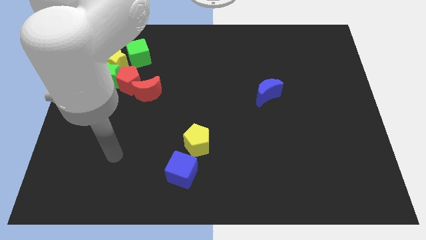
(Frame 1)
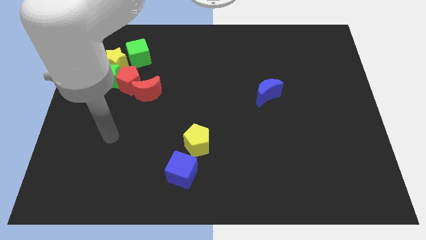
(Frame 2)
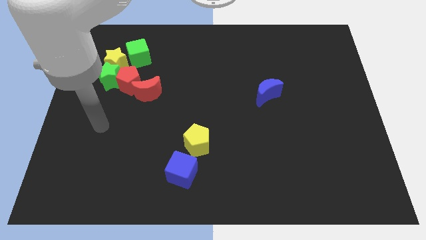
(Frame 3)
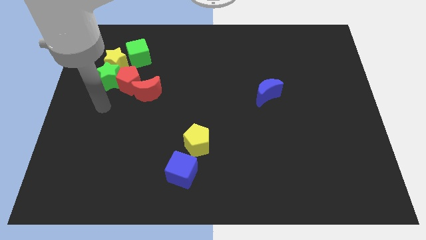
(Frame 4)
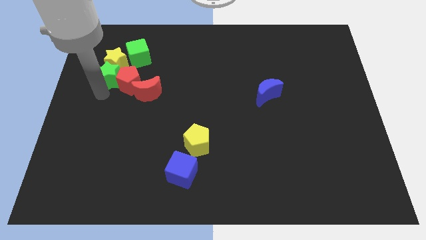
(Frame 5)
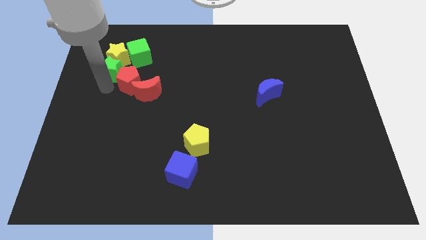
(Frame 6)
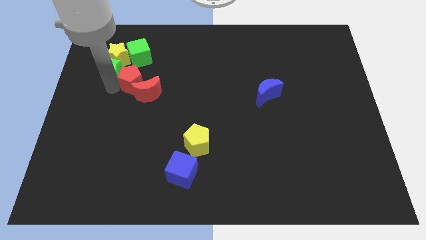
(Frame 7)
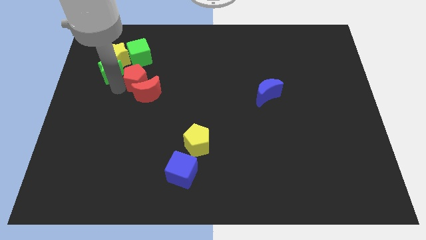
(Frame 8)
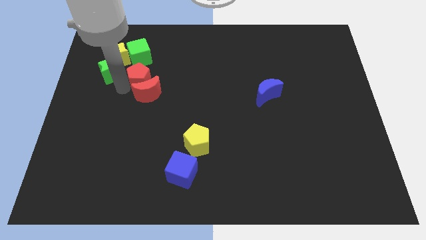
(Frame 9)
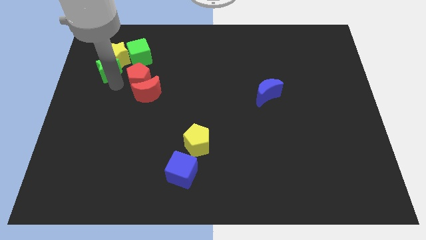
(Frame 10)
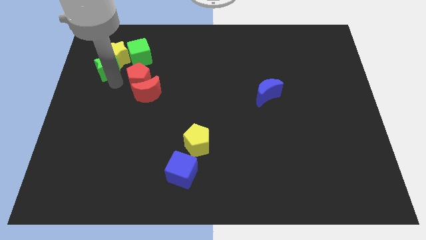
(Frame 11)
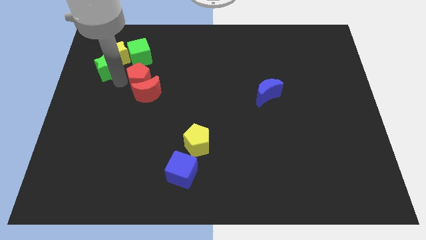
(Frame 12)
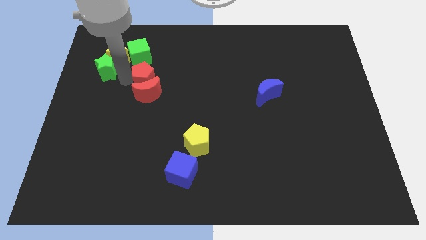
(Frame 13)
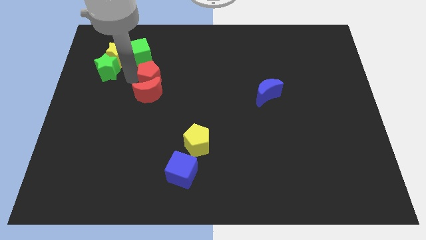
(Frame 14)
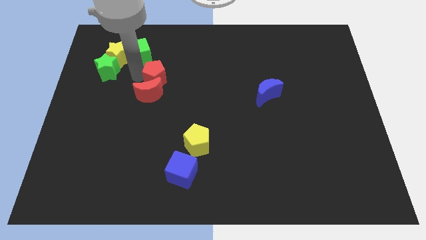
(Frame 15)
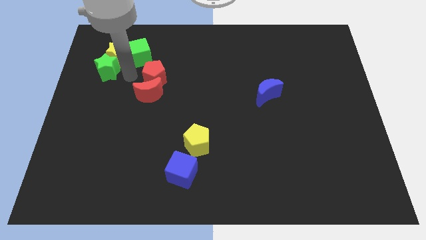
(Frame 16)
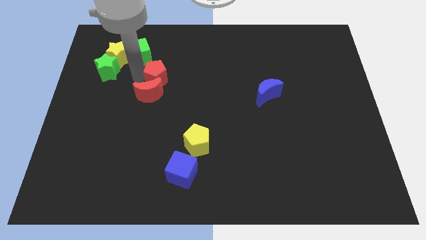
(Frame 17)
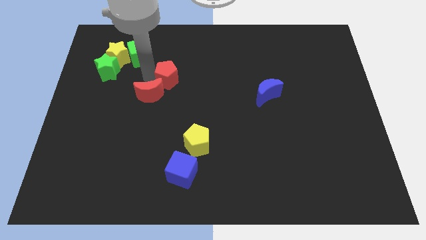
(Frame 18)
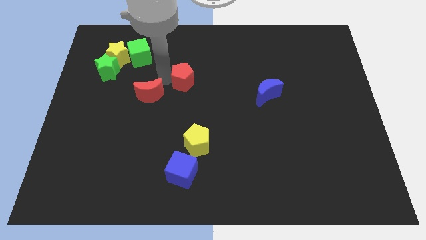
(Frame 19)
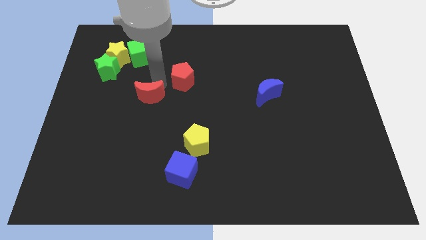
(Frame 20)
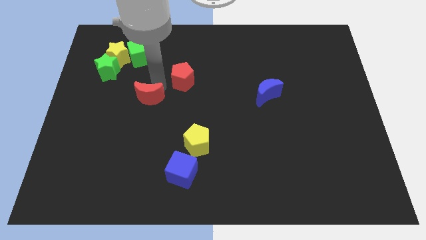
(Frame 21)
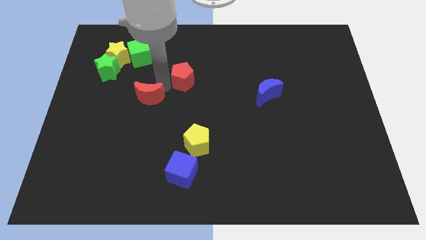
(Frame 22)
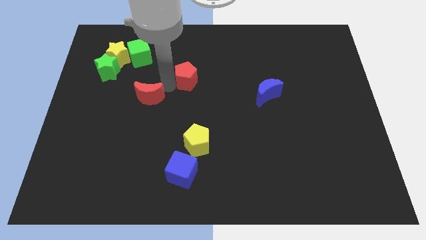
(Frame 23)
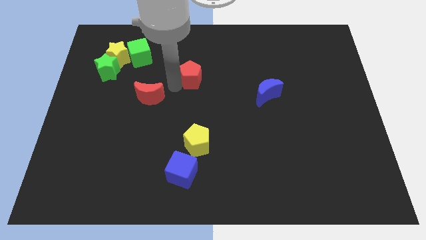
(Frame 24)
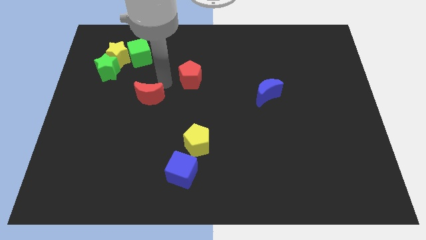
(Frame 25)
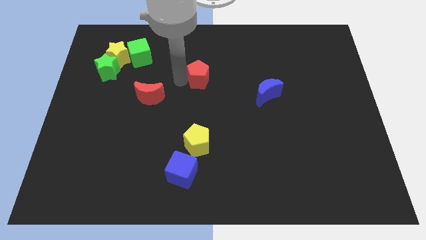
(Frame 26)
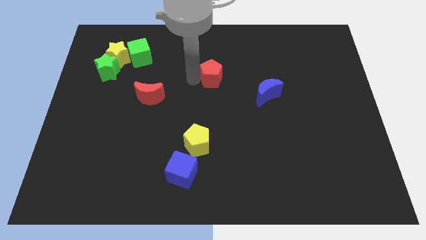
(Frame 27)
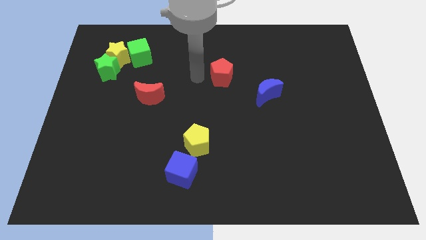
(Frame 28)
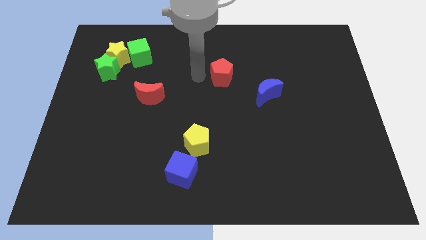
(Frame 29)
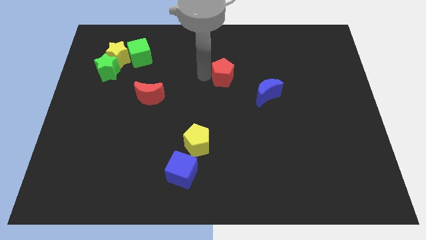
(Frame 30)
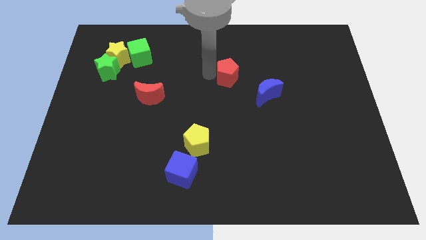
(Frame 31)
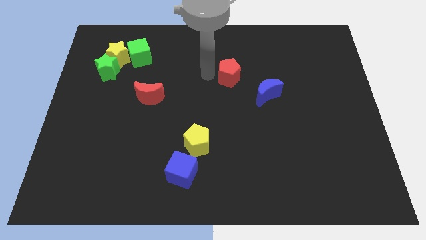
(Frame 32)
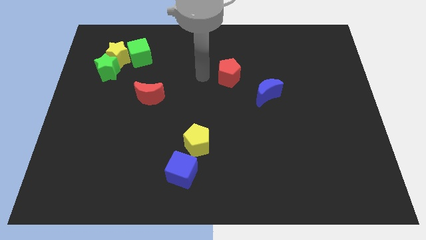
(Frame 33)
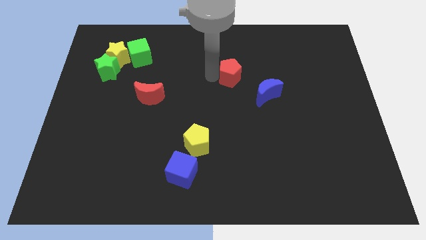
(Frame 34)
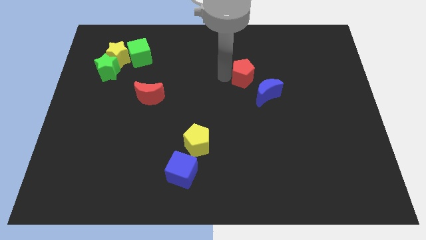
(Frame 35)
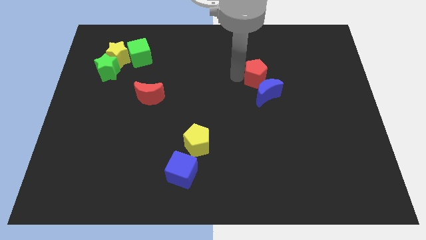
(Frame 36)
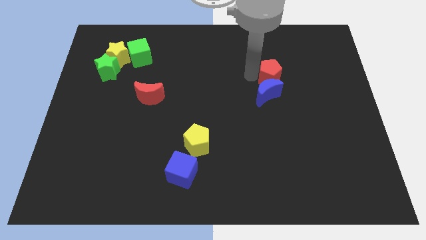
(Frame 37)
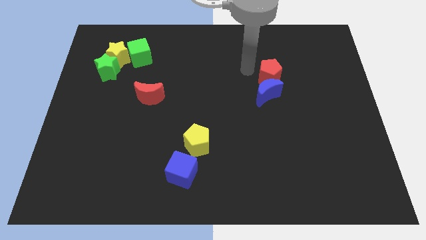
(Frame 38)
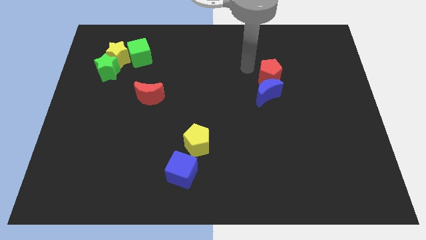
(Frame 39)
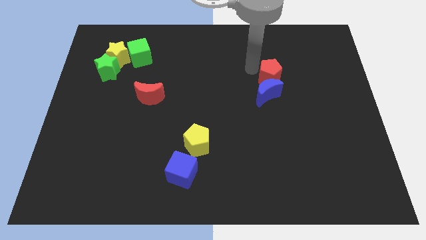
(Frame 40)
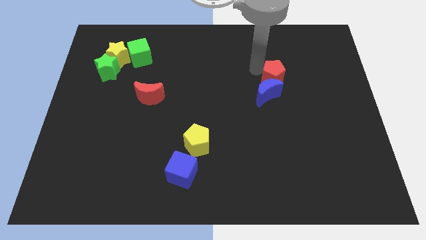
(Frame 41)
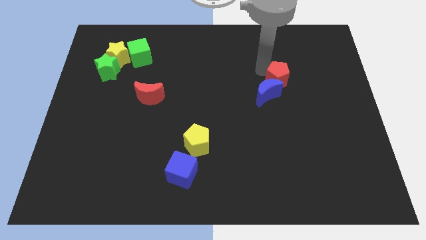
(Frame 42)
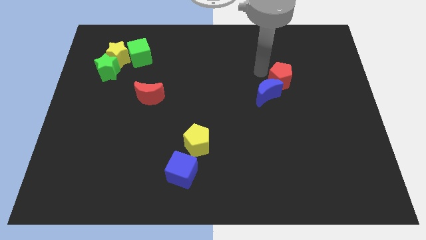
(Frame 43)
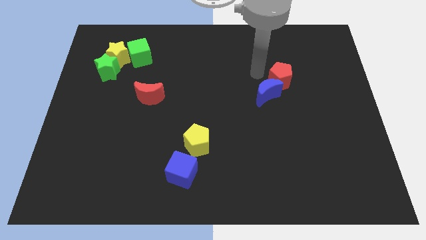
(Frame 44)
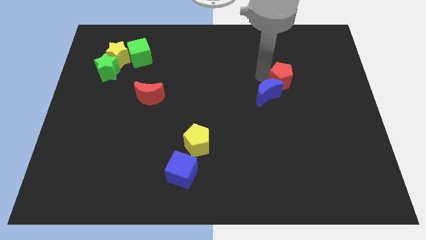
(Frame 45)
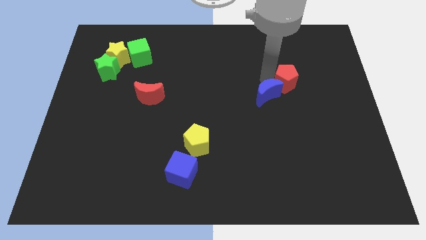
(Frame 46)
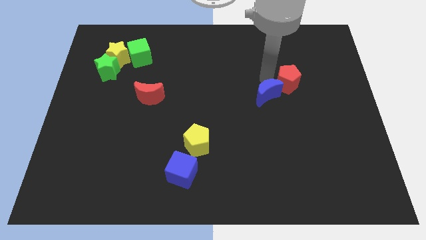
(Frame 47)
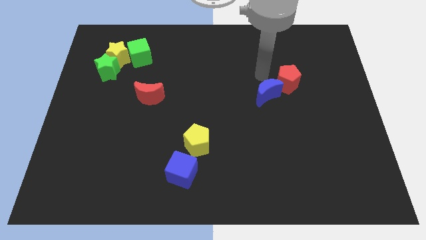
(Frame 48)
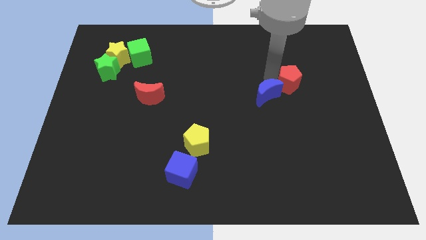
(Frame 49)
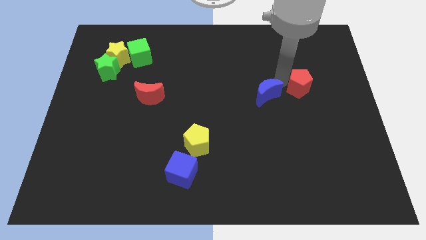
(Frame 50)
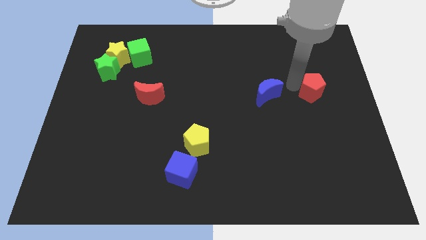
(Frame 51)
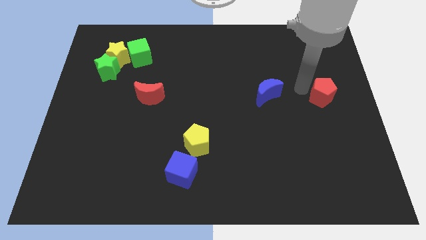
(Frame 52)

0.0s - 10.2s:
push the red pentagon to the center right

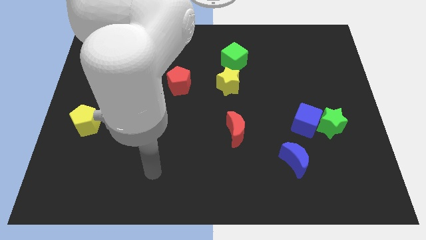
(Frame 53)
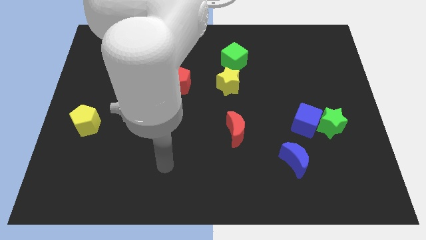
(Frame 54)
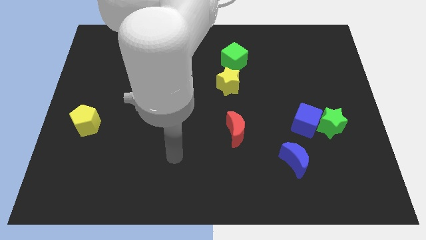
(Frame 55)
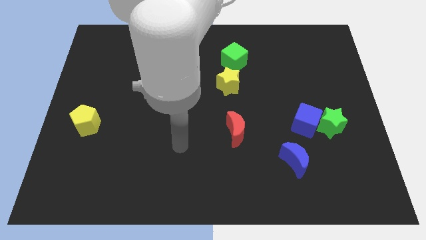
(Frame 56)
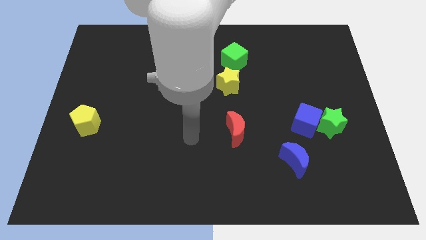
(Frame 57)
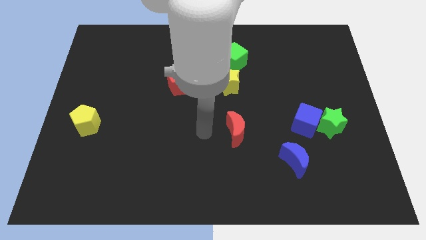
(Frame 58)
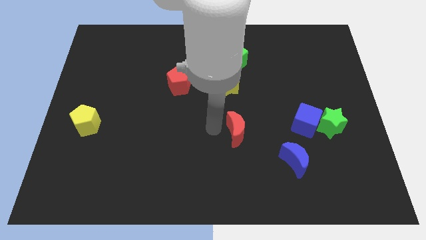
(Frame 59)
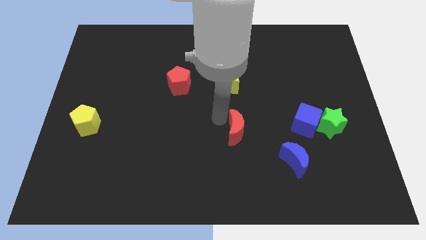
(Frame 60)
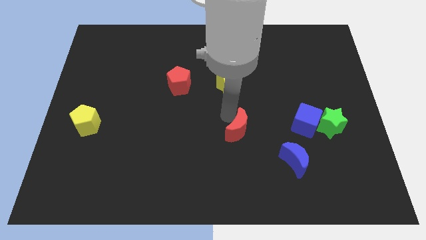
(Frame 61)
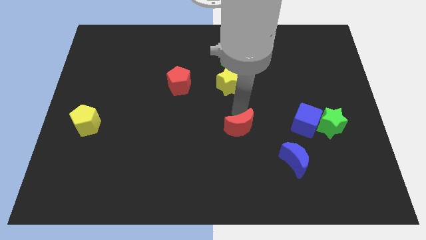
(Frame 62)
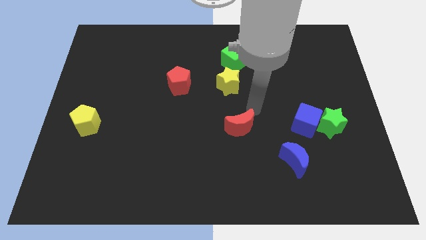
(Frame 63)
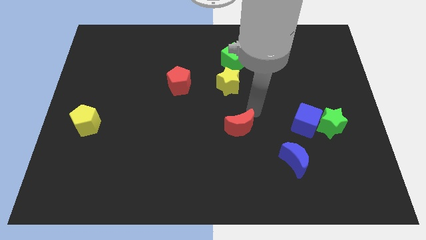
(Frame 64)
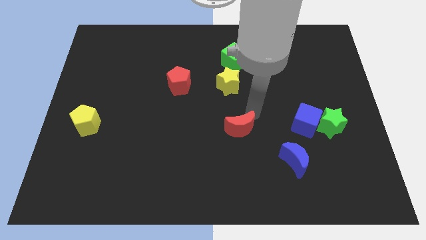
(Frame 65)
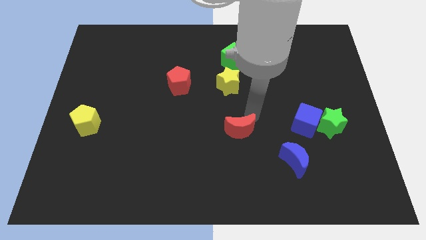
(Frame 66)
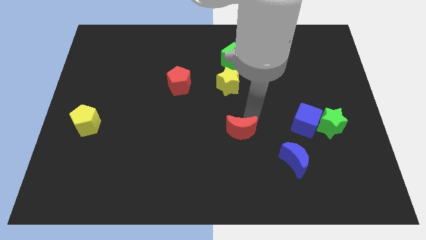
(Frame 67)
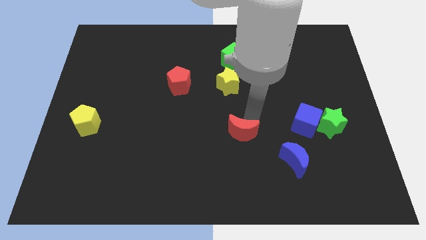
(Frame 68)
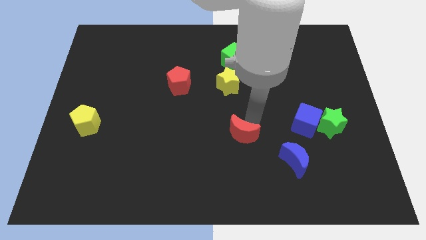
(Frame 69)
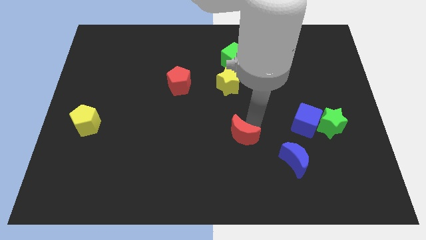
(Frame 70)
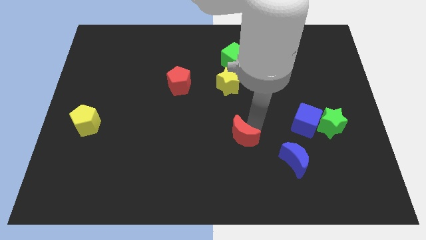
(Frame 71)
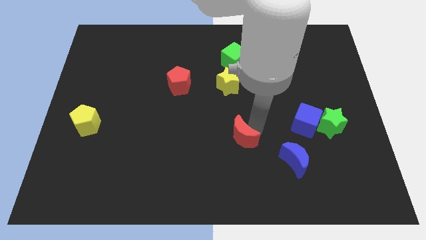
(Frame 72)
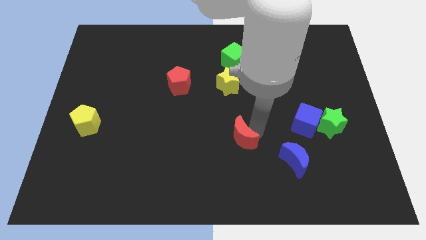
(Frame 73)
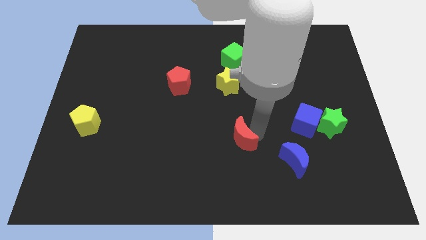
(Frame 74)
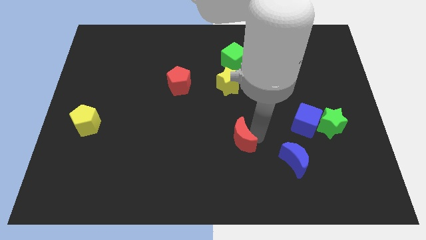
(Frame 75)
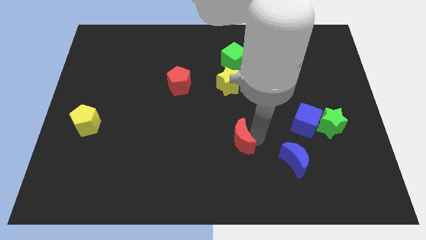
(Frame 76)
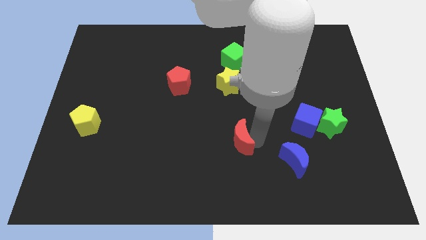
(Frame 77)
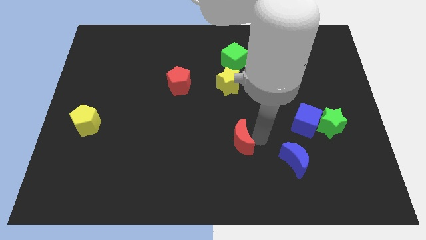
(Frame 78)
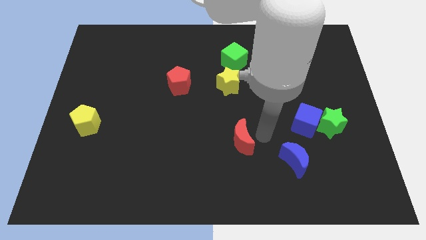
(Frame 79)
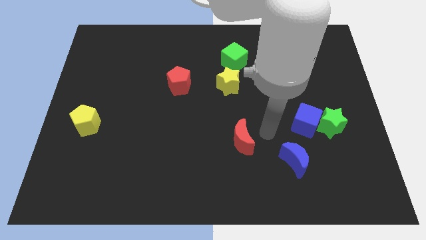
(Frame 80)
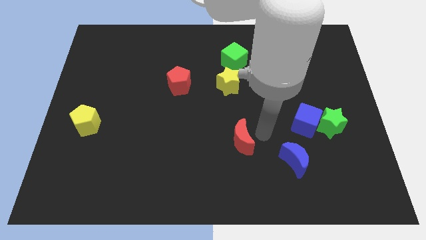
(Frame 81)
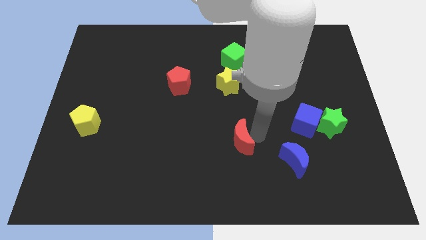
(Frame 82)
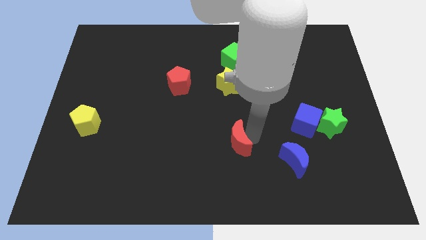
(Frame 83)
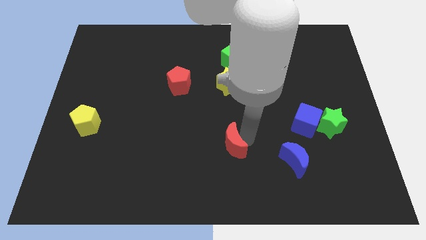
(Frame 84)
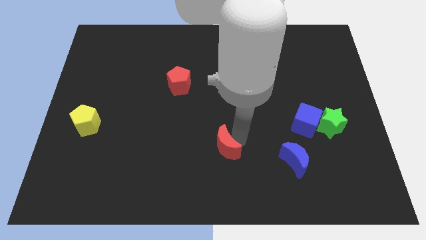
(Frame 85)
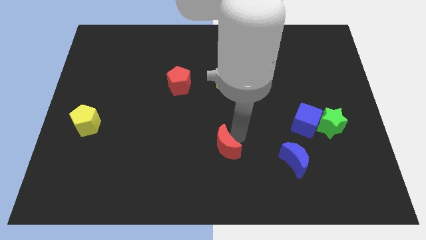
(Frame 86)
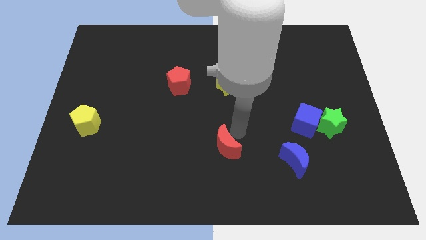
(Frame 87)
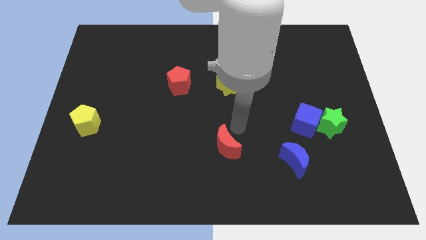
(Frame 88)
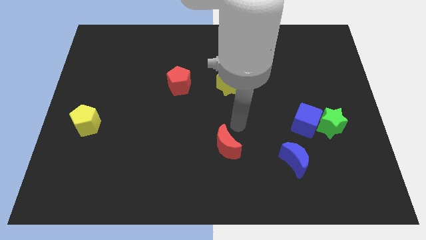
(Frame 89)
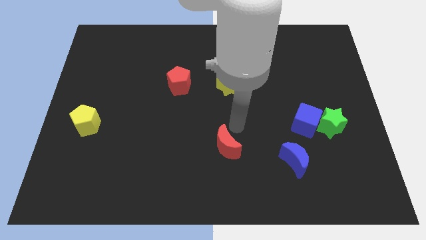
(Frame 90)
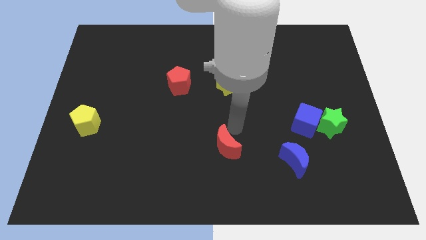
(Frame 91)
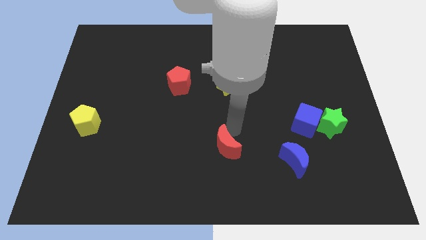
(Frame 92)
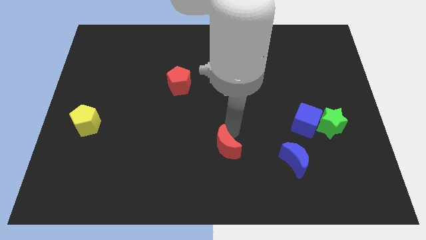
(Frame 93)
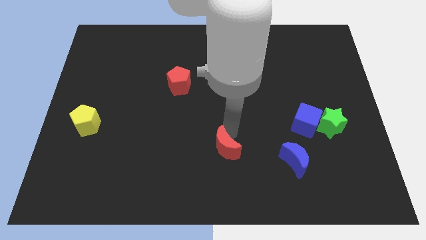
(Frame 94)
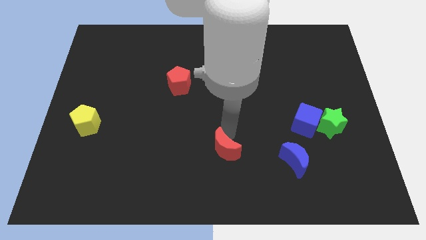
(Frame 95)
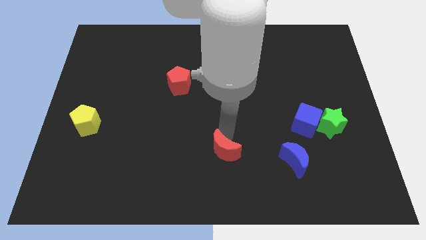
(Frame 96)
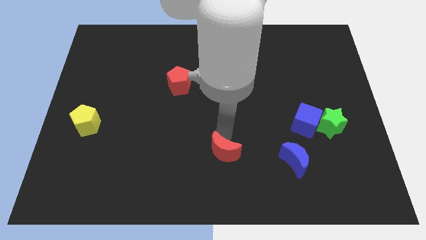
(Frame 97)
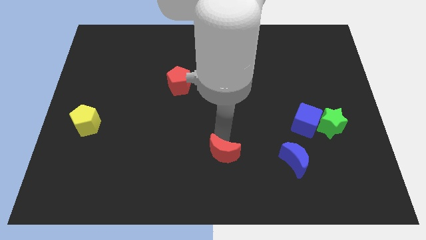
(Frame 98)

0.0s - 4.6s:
push the red moon to the bottom side
